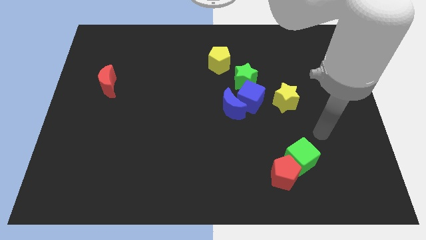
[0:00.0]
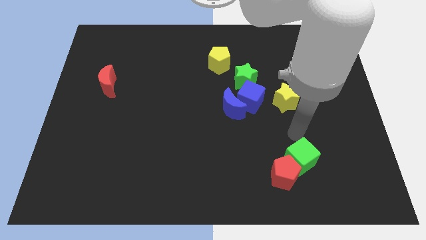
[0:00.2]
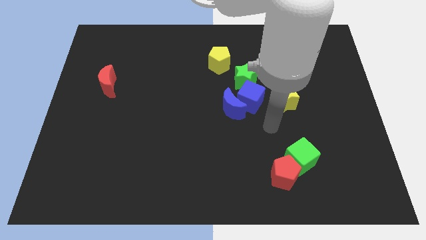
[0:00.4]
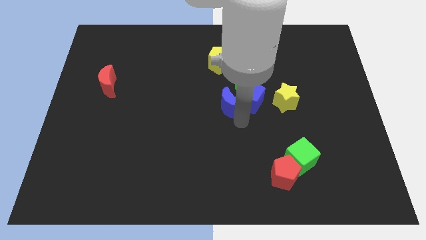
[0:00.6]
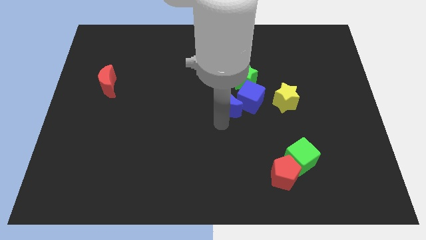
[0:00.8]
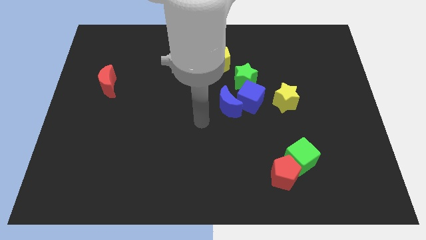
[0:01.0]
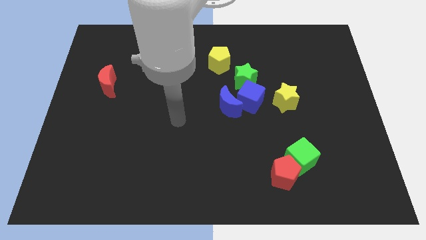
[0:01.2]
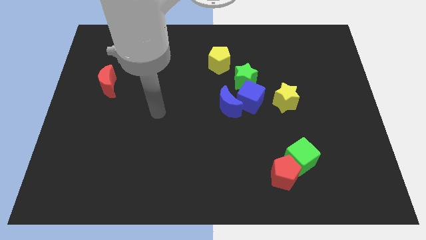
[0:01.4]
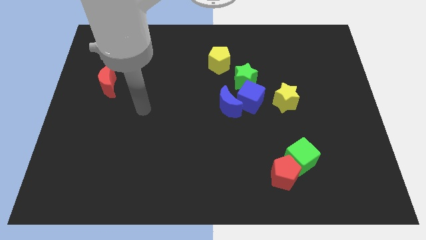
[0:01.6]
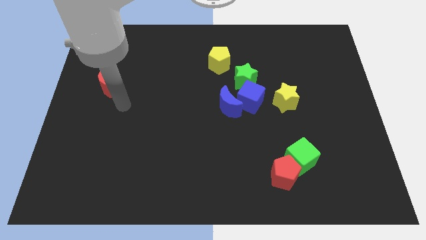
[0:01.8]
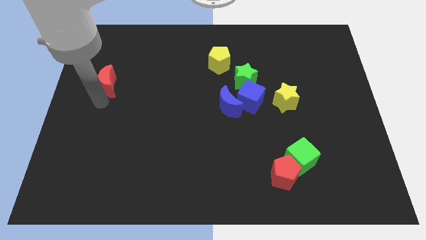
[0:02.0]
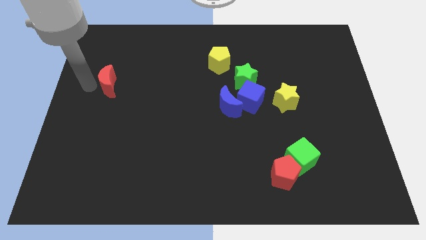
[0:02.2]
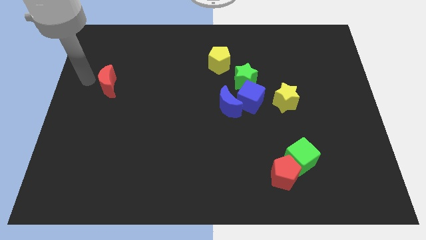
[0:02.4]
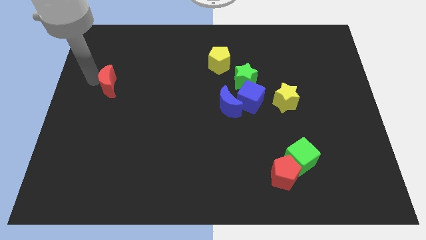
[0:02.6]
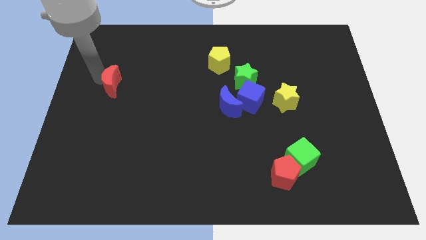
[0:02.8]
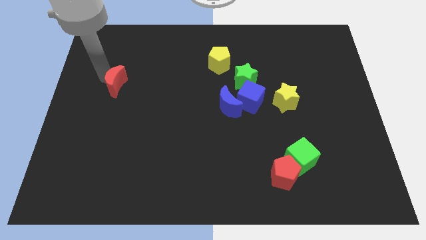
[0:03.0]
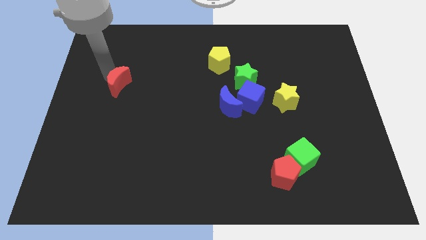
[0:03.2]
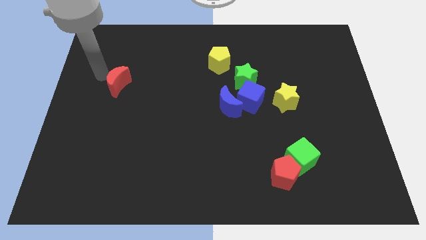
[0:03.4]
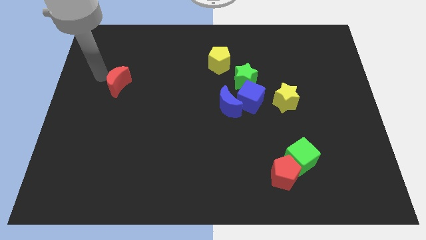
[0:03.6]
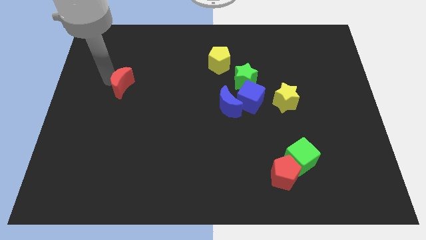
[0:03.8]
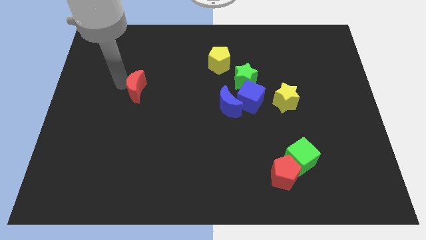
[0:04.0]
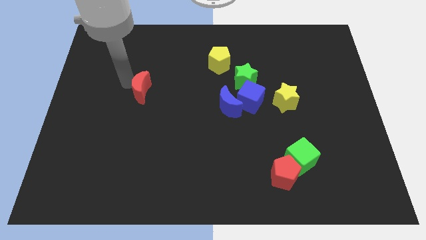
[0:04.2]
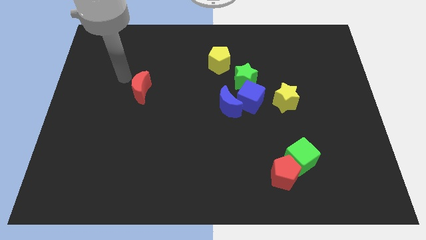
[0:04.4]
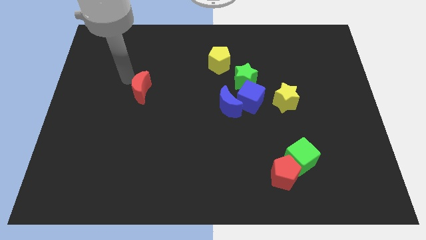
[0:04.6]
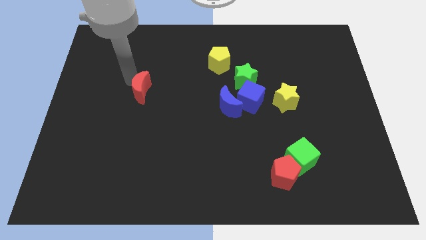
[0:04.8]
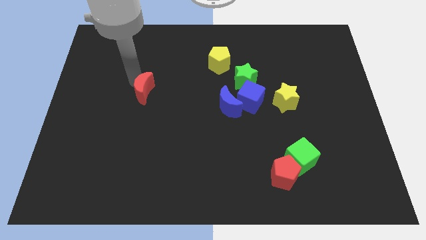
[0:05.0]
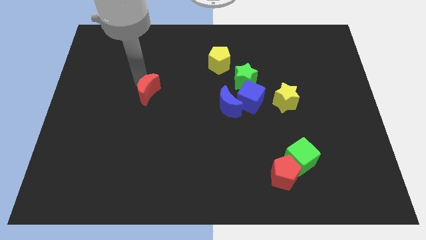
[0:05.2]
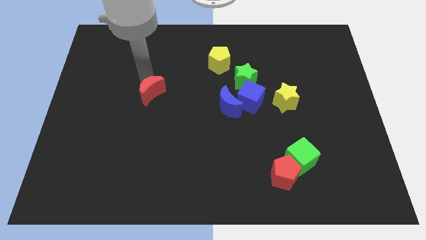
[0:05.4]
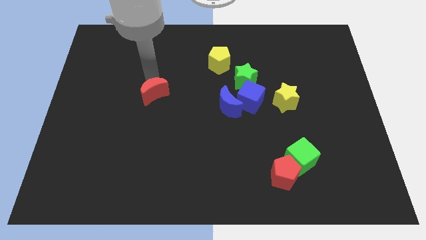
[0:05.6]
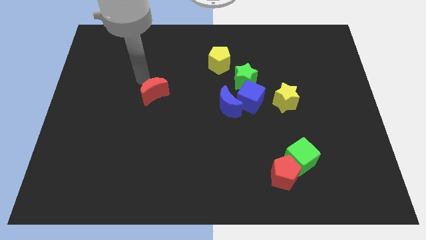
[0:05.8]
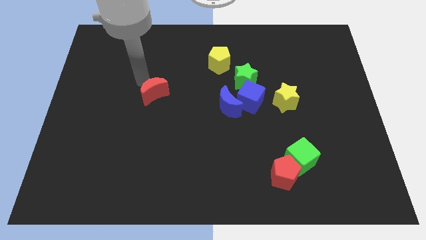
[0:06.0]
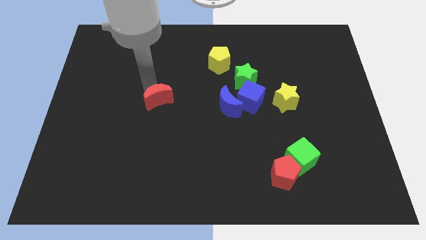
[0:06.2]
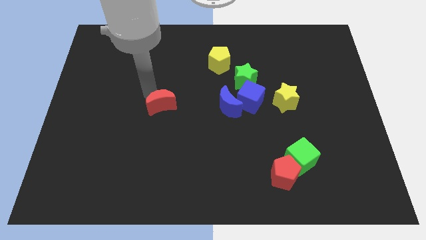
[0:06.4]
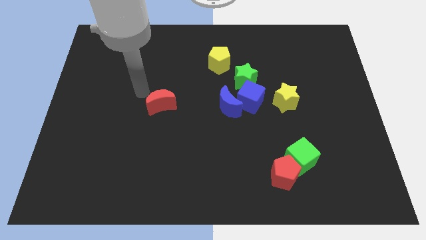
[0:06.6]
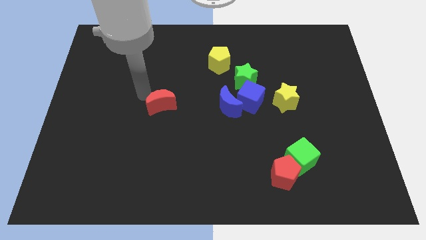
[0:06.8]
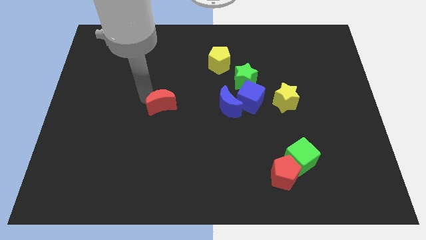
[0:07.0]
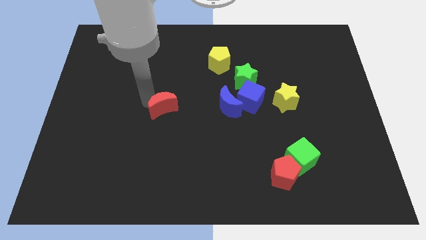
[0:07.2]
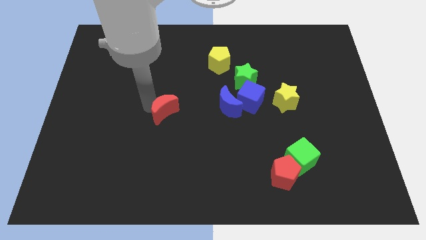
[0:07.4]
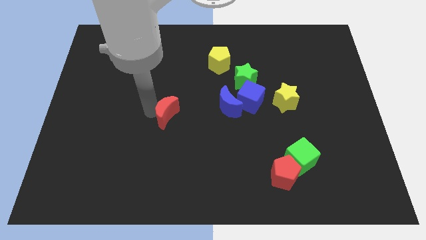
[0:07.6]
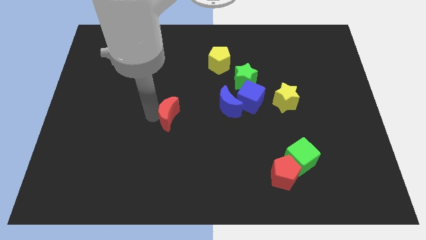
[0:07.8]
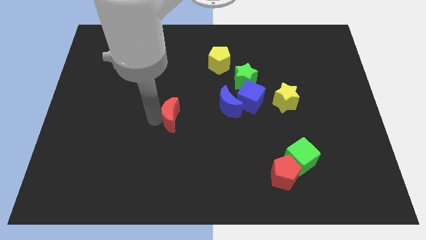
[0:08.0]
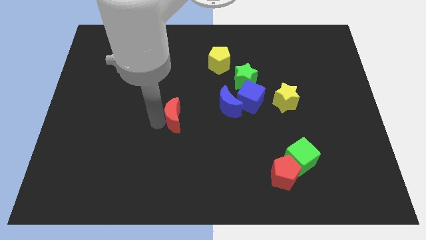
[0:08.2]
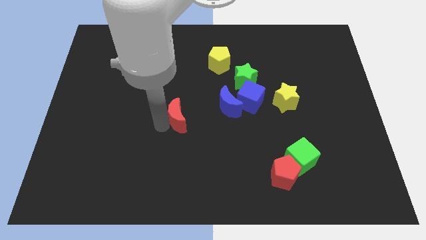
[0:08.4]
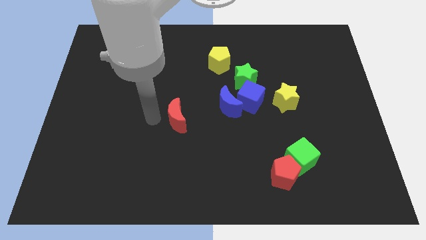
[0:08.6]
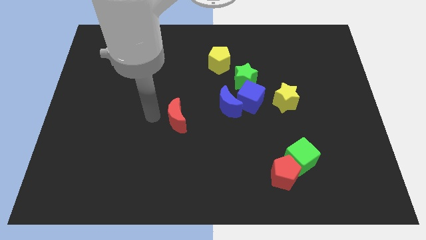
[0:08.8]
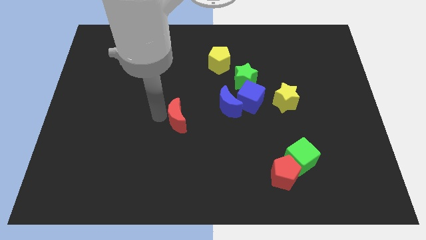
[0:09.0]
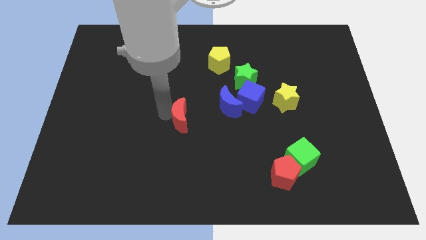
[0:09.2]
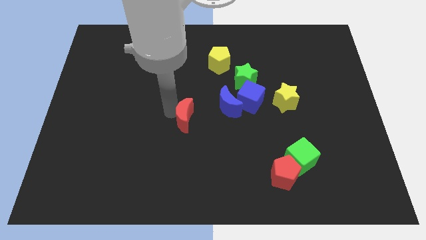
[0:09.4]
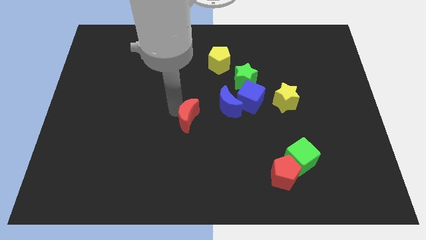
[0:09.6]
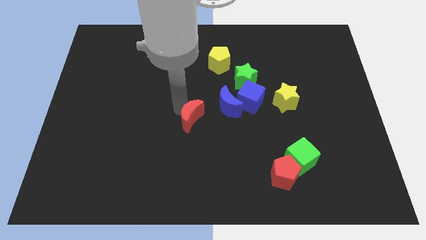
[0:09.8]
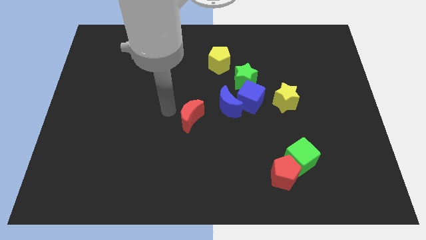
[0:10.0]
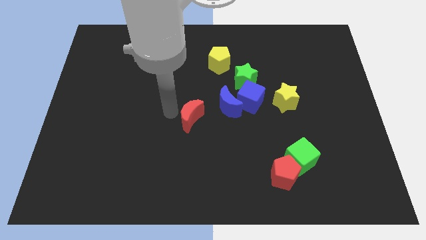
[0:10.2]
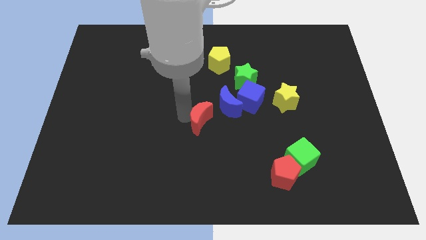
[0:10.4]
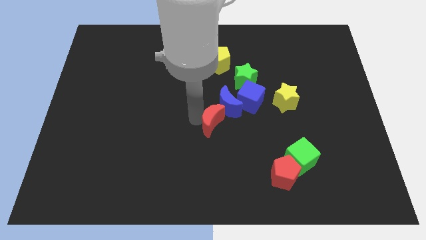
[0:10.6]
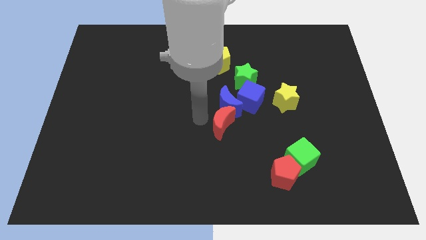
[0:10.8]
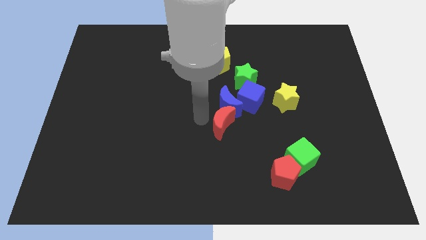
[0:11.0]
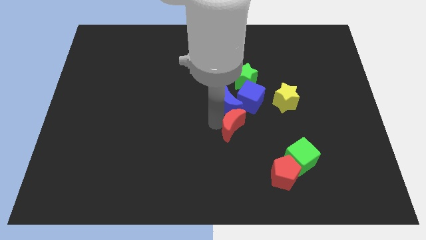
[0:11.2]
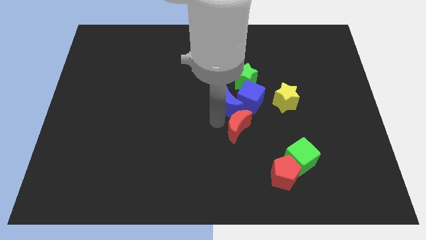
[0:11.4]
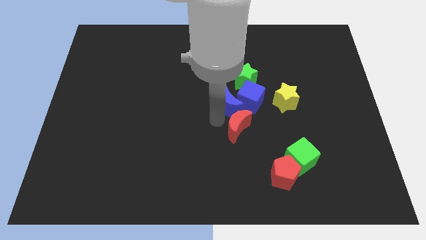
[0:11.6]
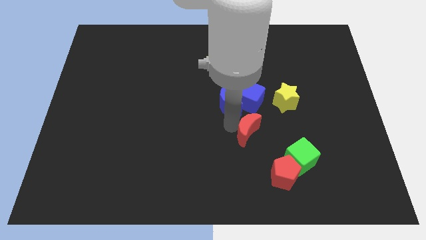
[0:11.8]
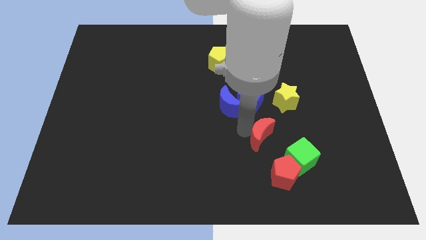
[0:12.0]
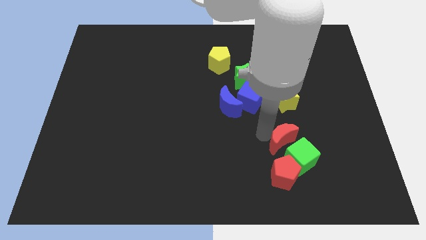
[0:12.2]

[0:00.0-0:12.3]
slide the red moon close to the green cube

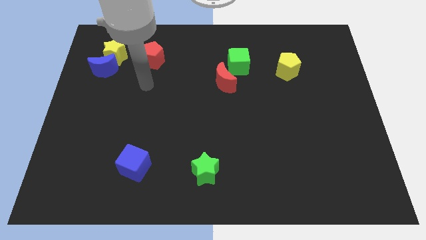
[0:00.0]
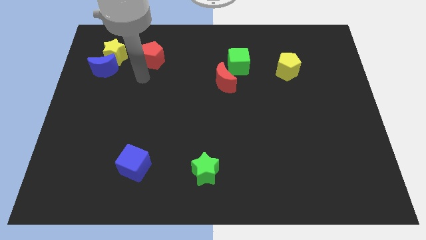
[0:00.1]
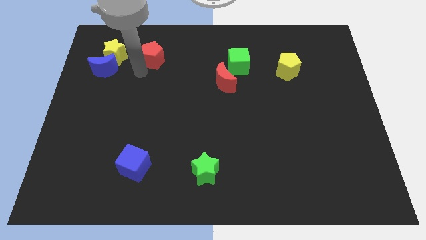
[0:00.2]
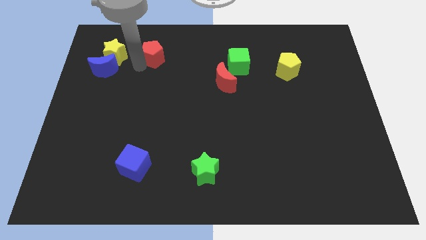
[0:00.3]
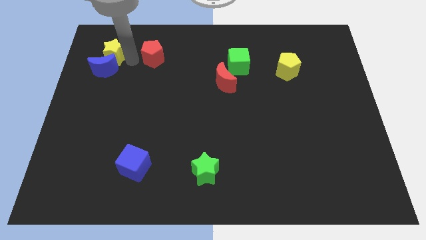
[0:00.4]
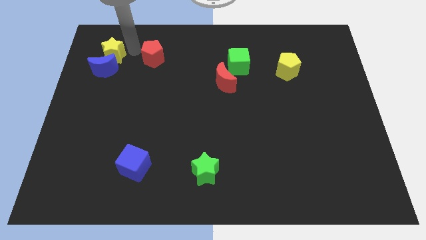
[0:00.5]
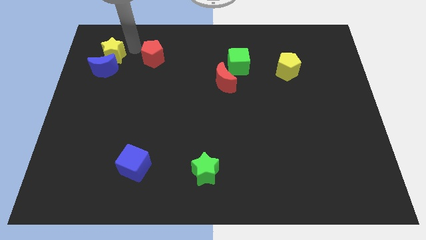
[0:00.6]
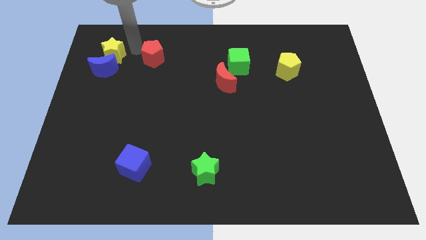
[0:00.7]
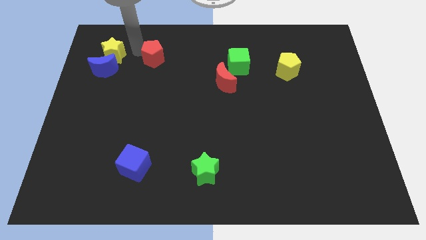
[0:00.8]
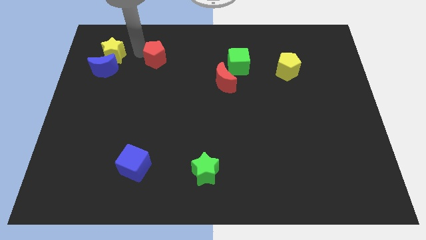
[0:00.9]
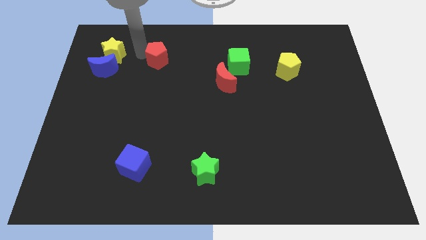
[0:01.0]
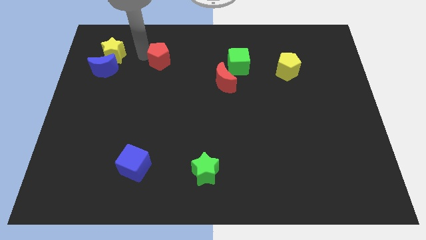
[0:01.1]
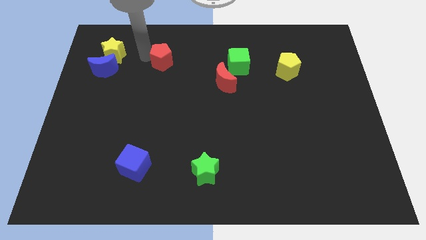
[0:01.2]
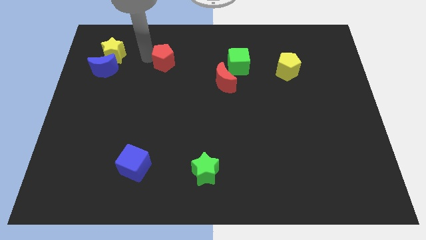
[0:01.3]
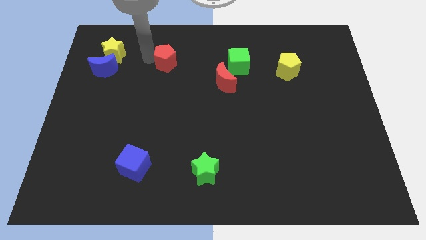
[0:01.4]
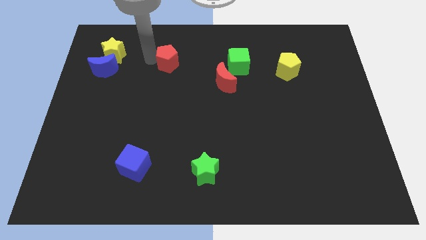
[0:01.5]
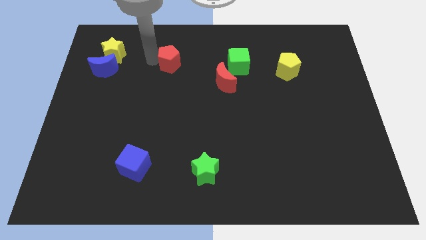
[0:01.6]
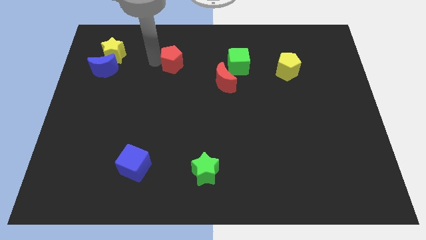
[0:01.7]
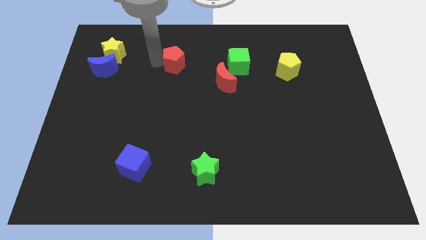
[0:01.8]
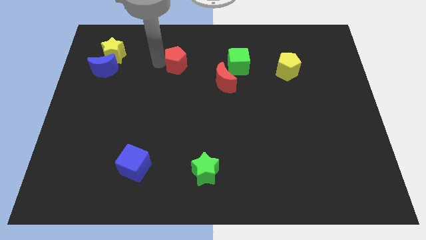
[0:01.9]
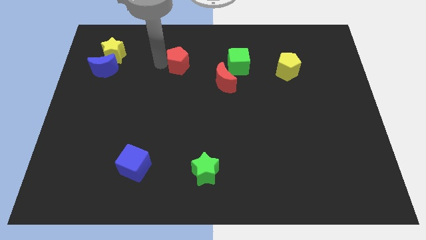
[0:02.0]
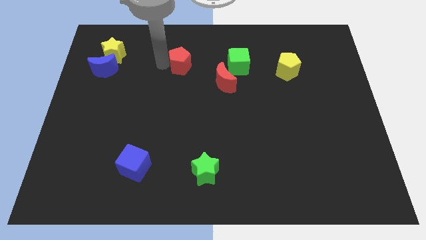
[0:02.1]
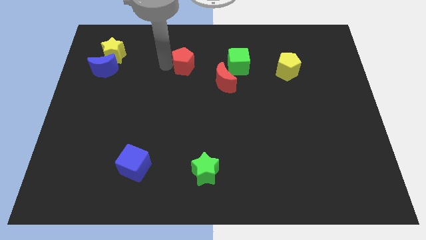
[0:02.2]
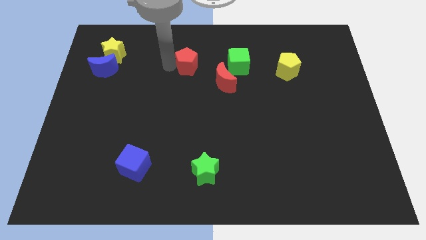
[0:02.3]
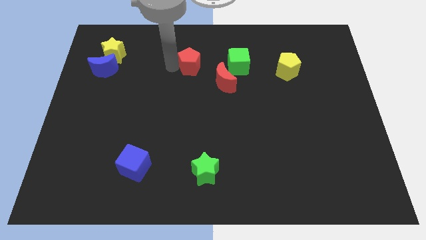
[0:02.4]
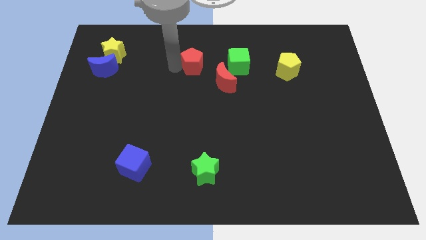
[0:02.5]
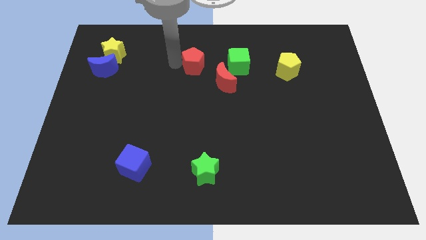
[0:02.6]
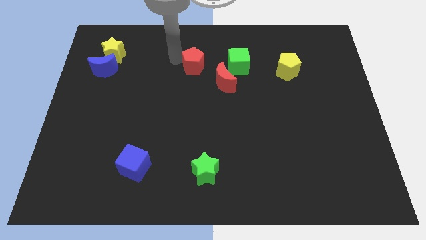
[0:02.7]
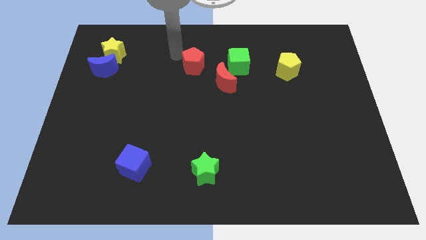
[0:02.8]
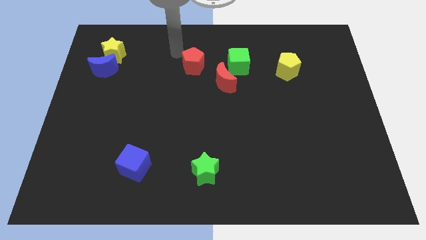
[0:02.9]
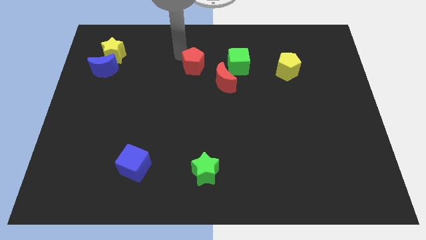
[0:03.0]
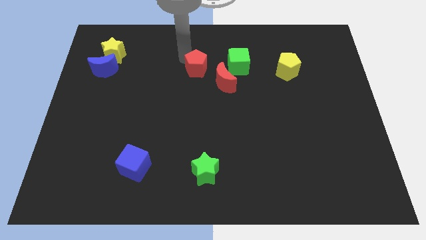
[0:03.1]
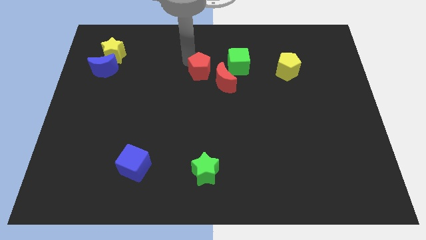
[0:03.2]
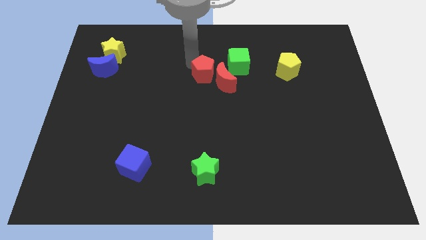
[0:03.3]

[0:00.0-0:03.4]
slide the red pentagon to the red moon
